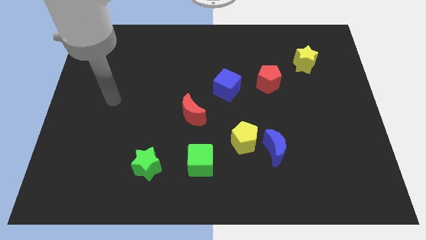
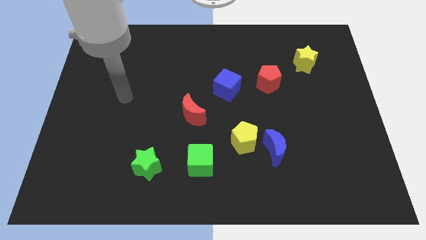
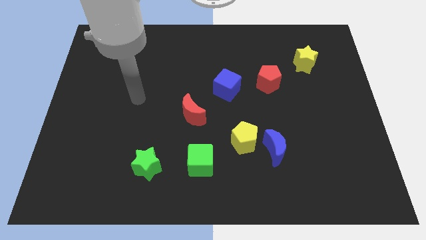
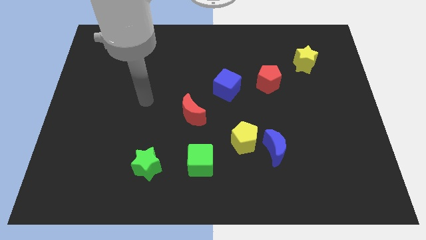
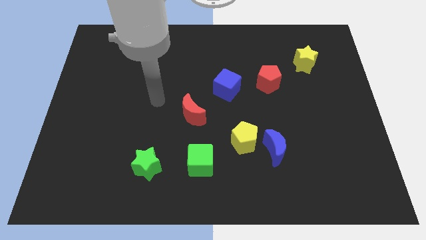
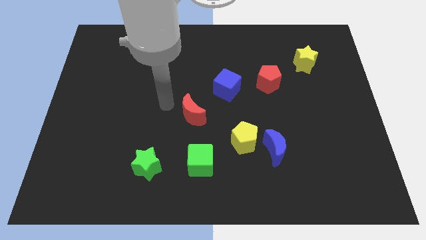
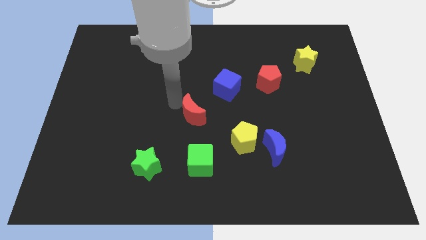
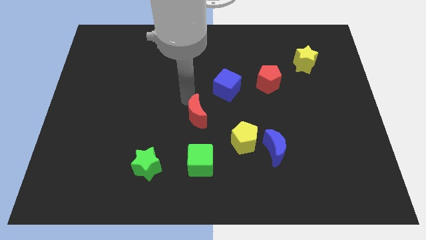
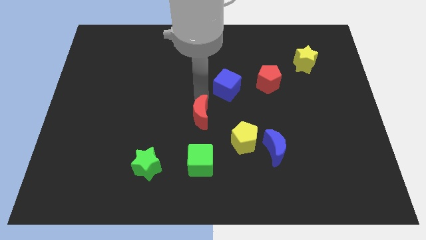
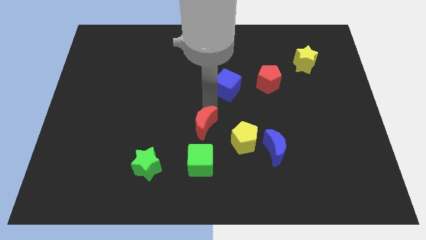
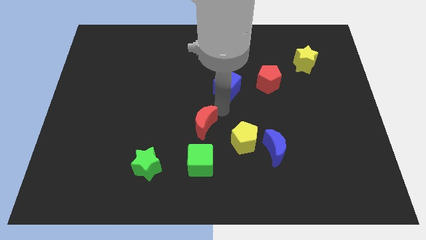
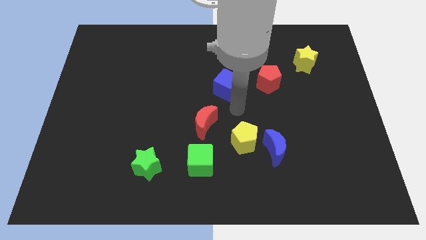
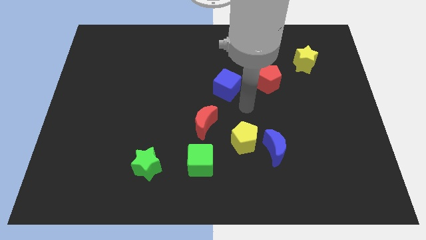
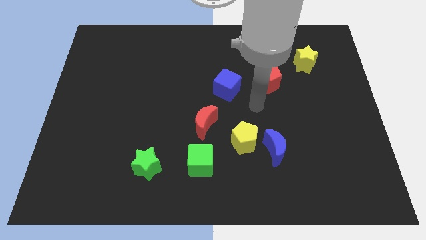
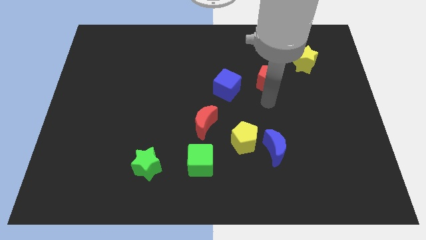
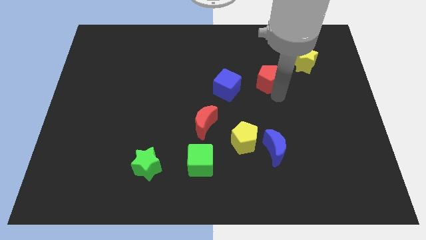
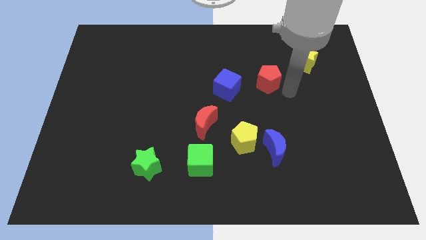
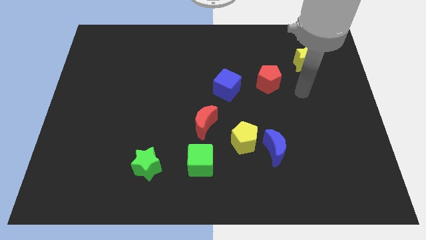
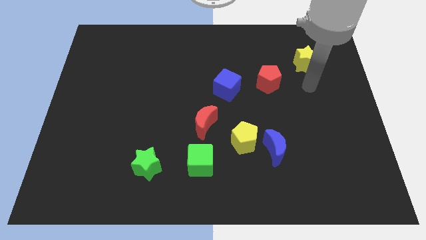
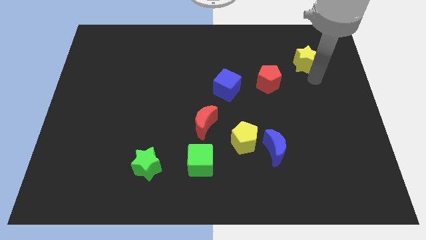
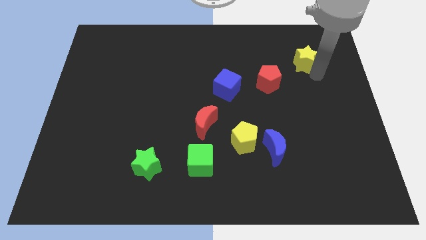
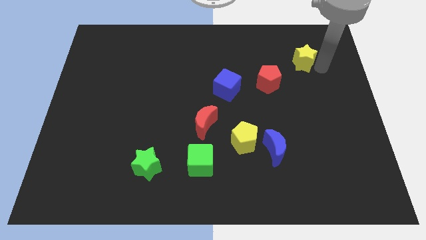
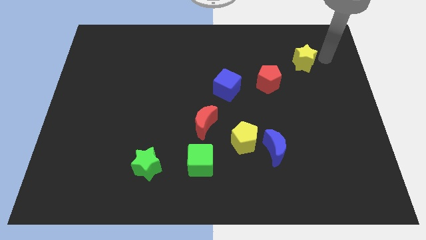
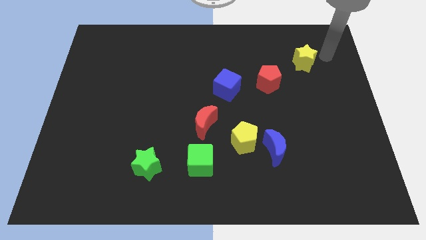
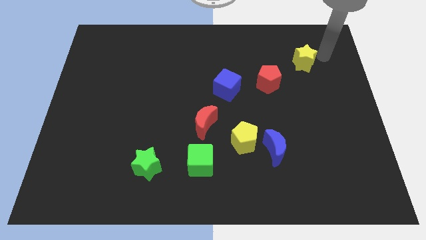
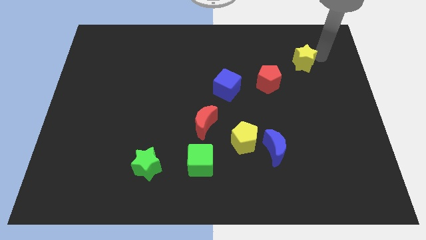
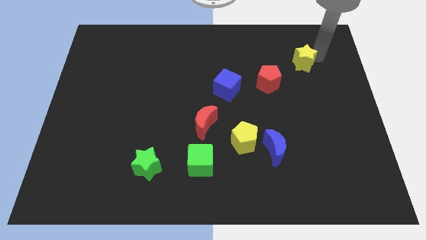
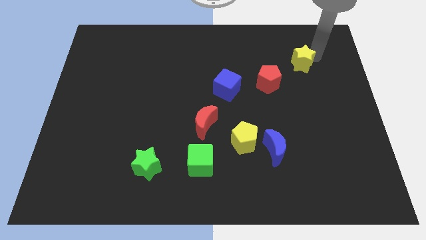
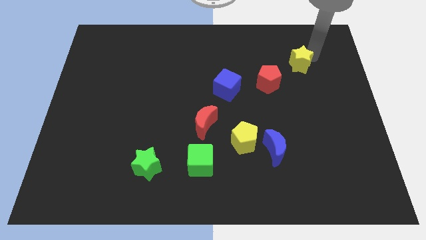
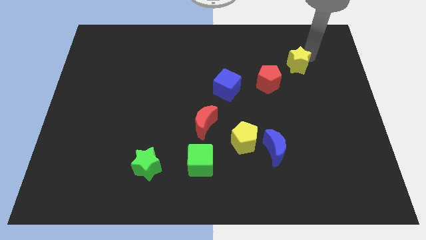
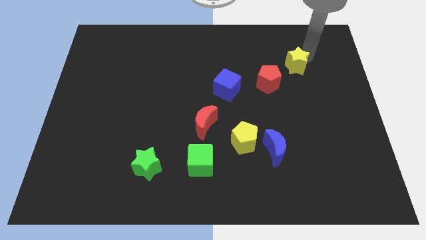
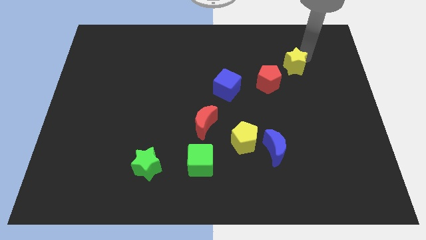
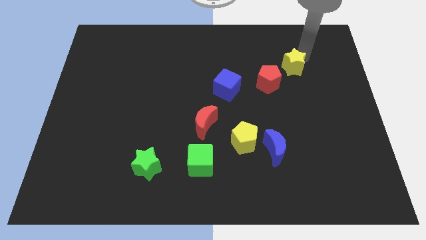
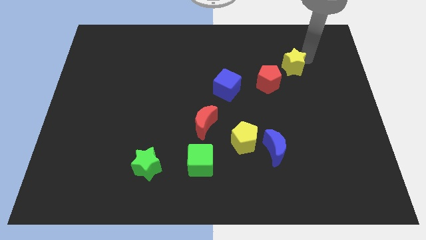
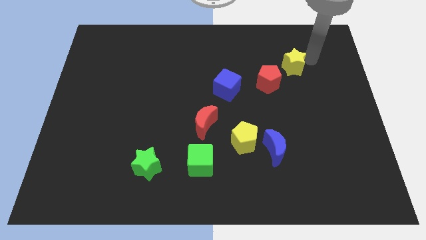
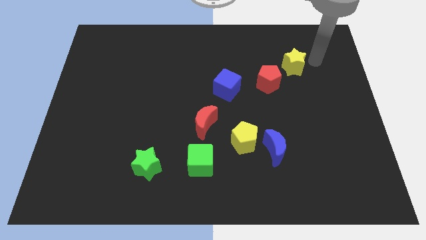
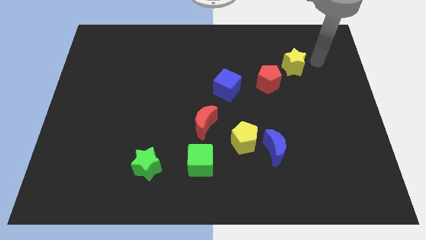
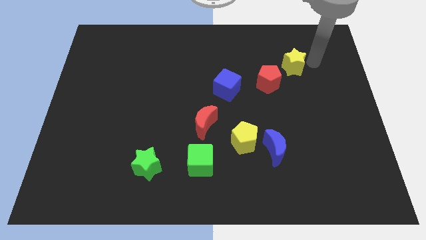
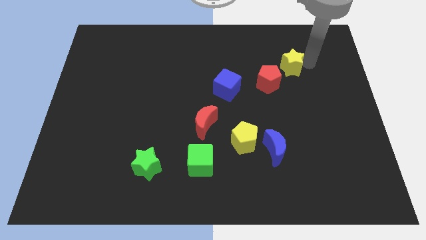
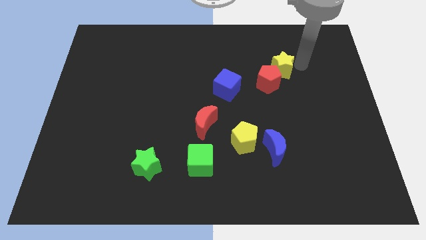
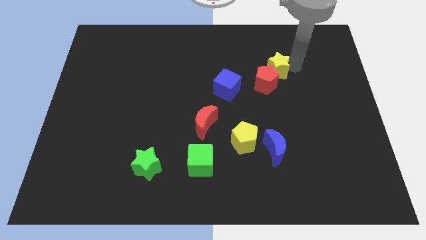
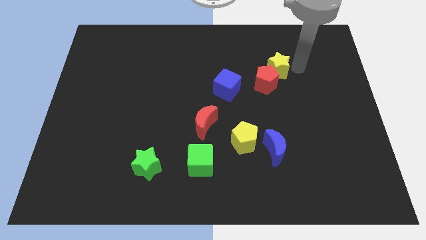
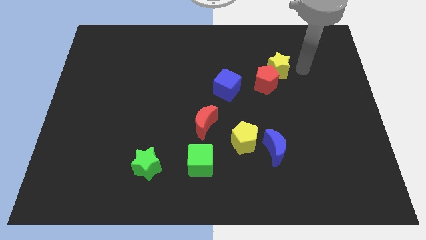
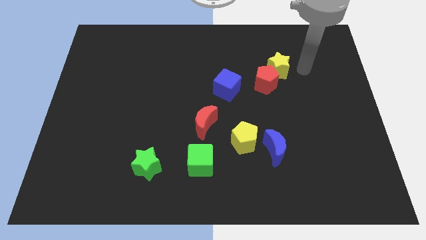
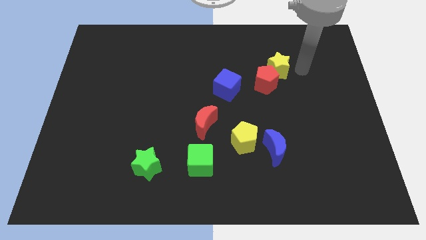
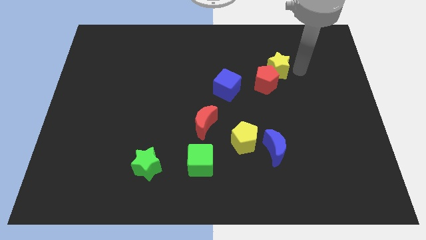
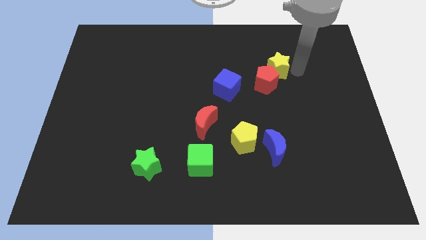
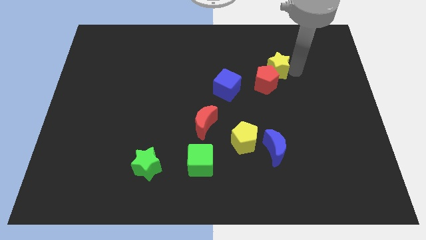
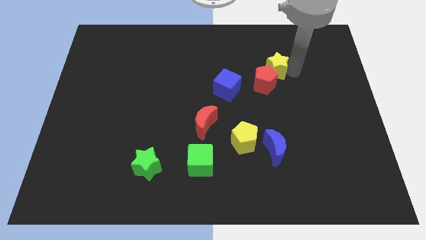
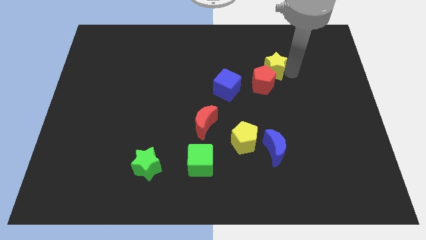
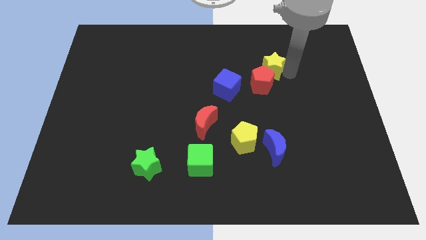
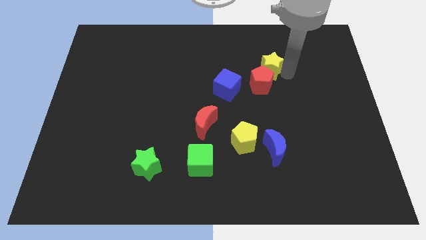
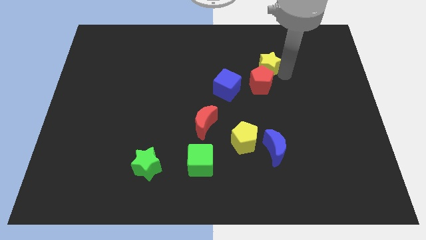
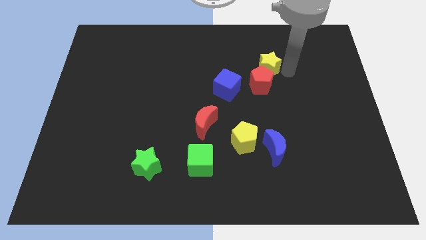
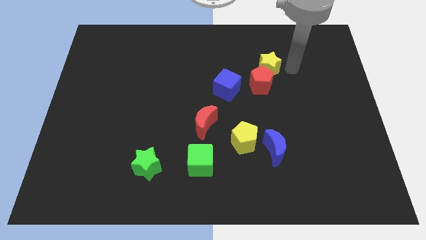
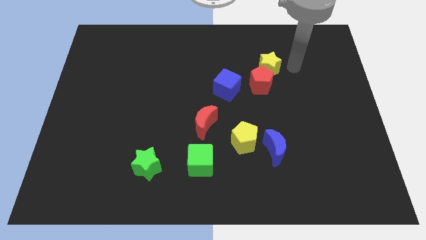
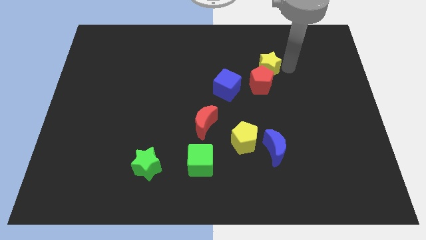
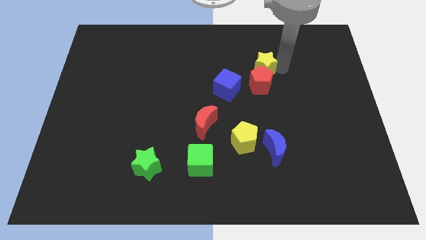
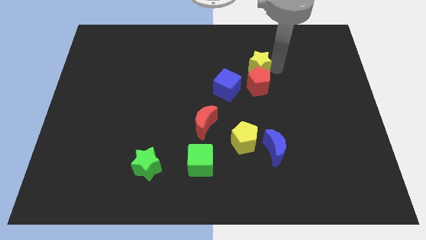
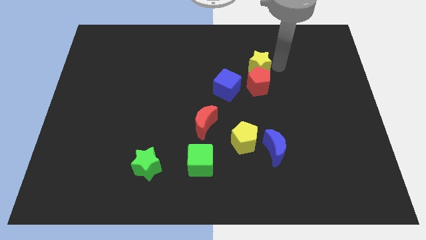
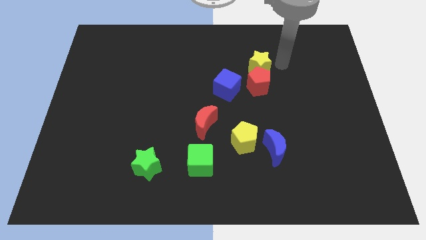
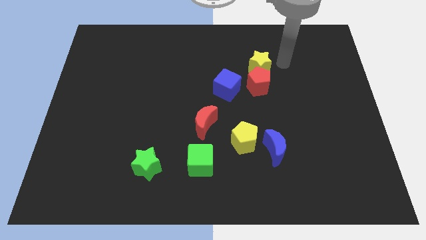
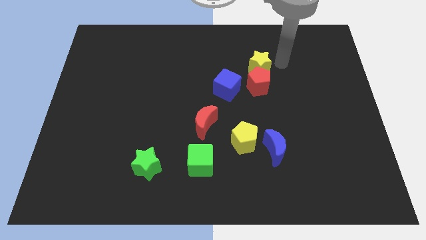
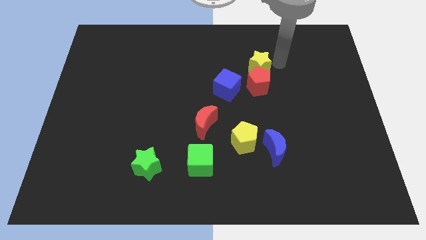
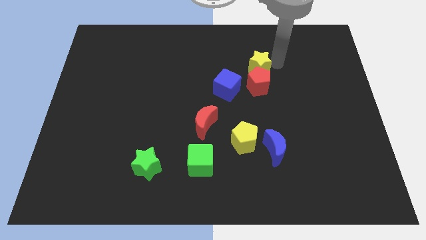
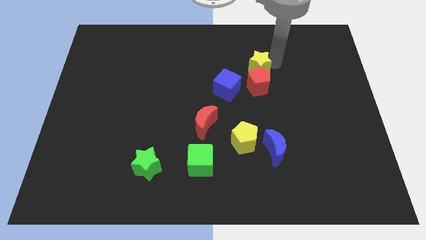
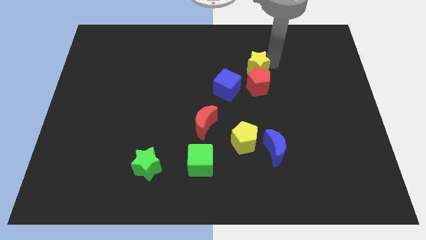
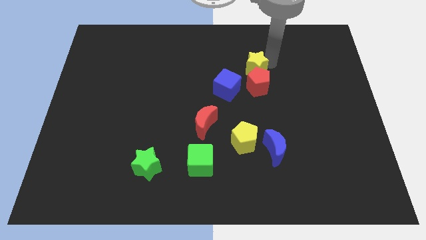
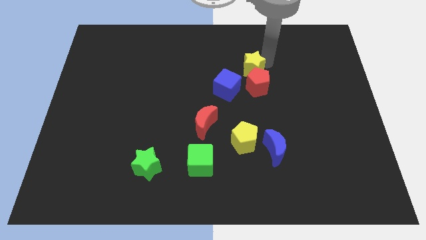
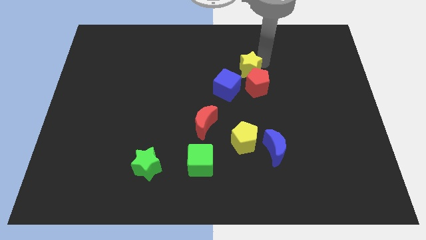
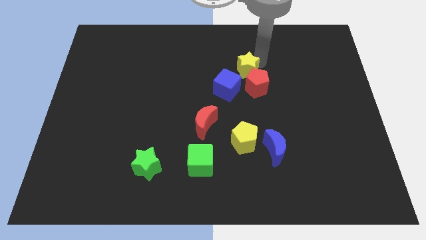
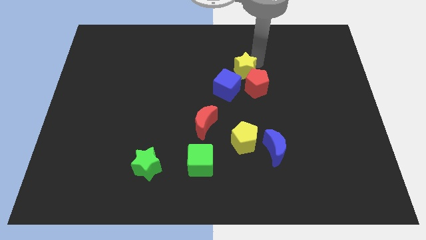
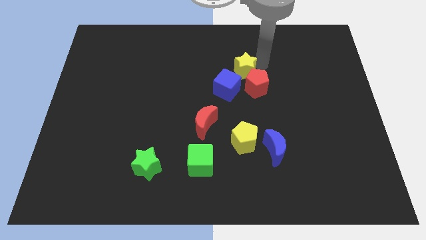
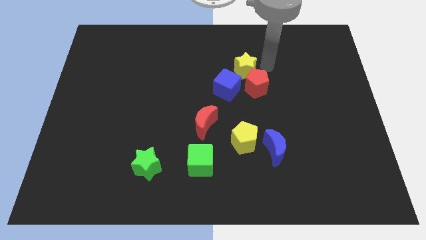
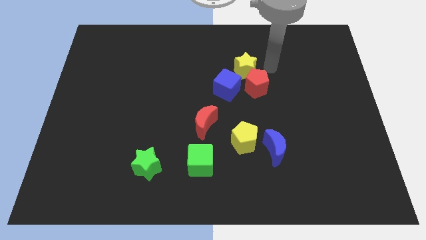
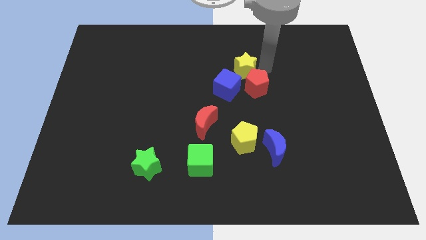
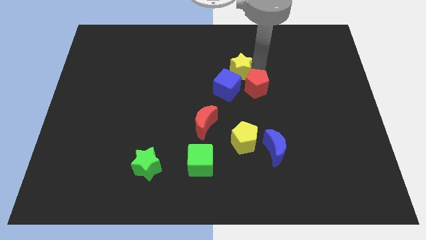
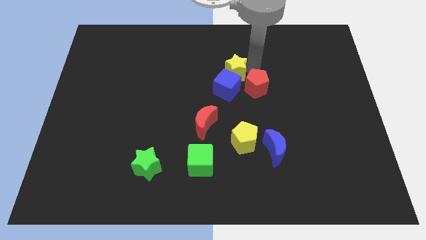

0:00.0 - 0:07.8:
move the yellow star left of the red pentagon

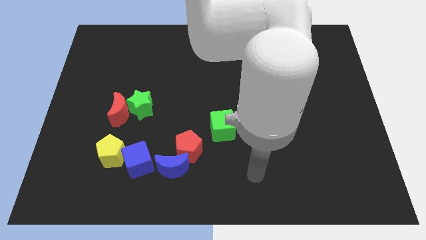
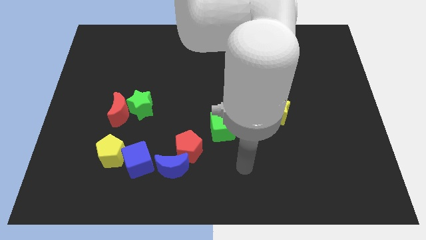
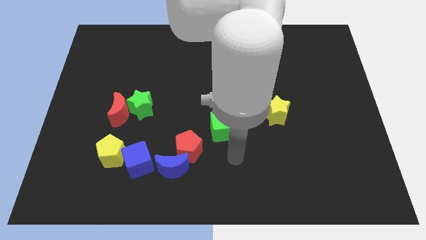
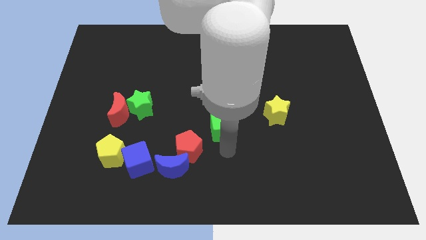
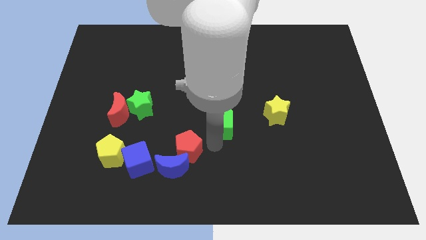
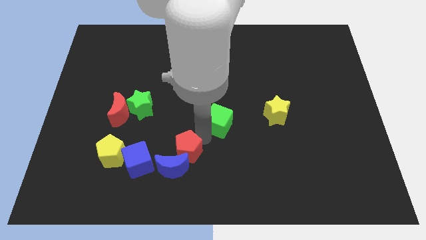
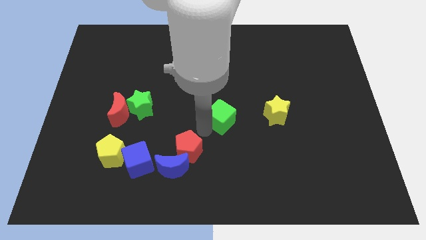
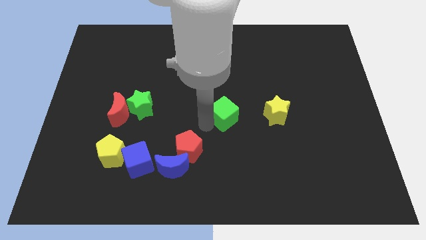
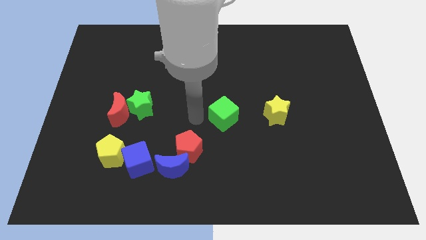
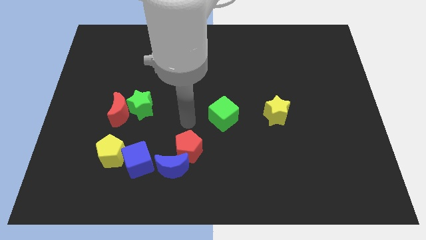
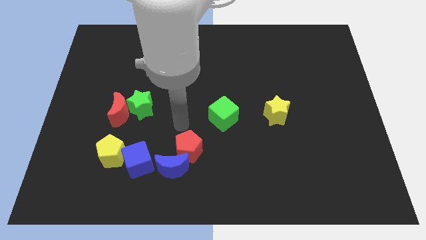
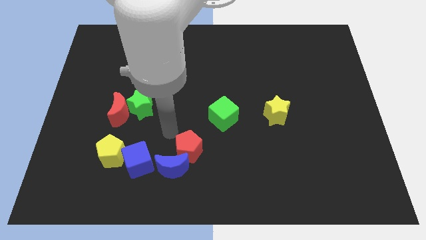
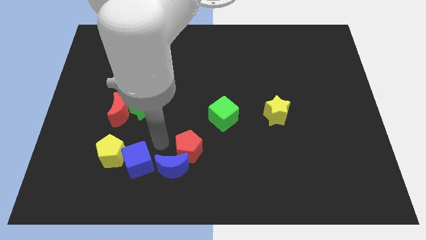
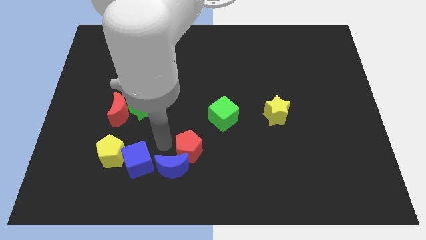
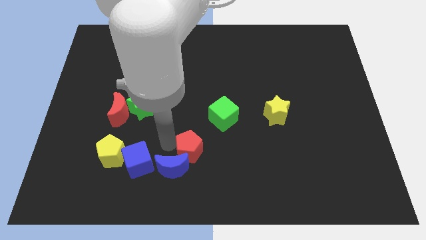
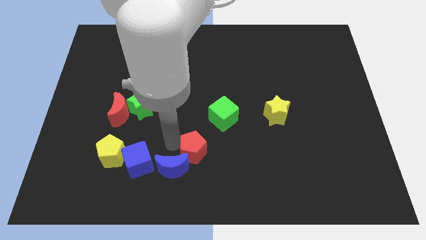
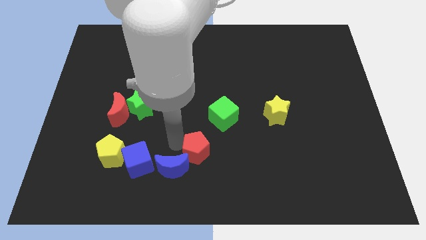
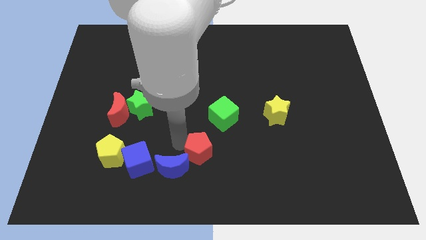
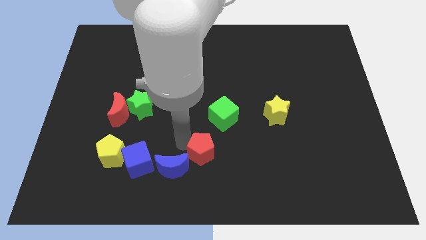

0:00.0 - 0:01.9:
slide the red pentagon to the bottom of the green cube
